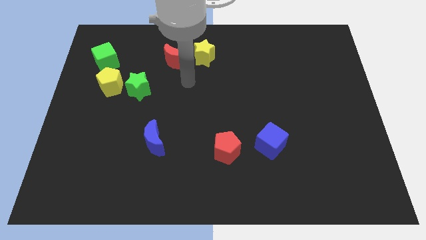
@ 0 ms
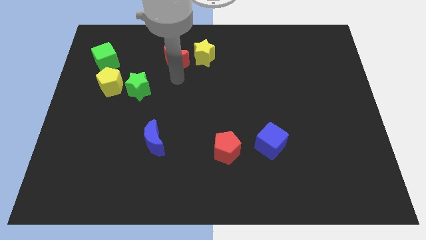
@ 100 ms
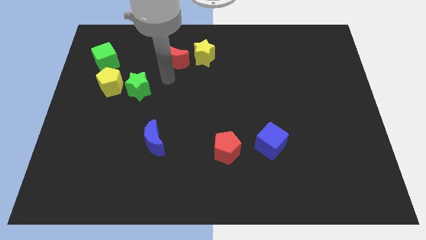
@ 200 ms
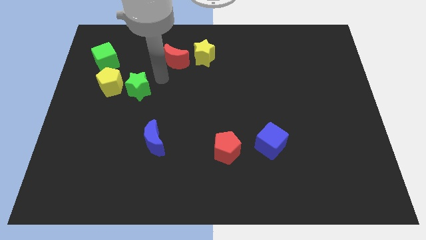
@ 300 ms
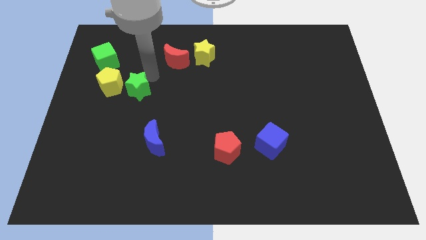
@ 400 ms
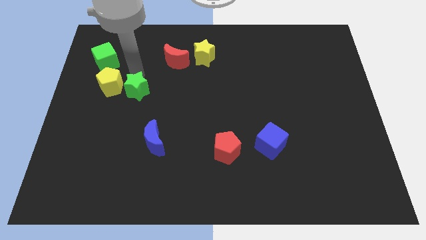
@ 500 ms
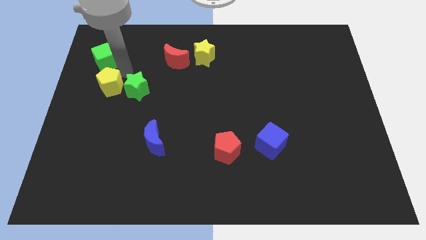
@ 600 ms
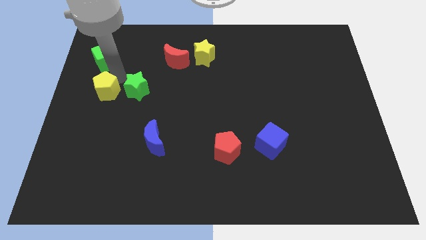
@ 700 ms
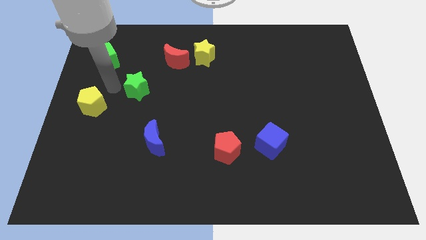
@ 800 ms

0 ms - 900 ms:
pull the green star apart from the yellow pentagon

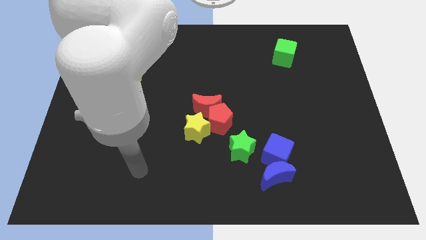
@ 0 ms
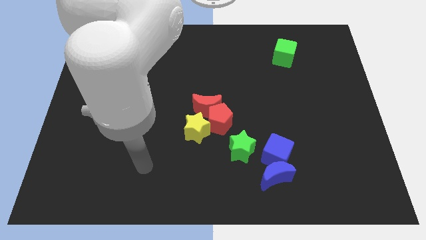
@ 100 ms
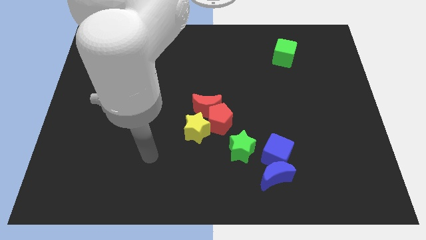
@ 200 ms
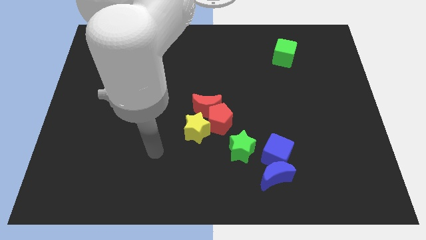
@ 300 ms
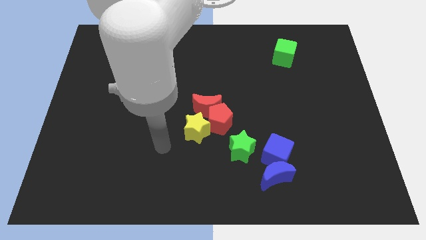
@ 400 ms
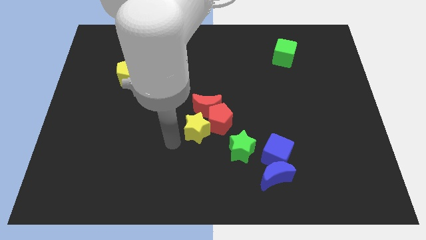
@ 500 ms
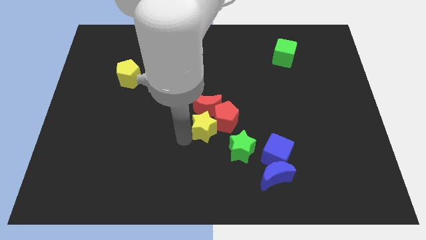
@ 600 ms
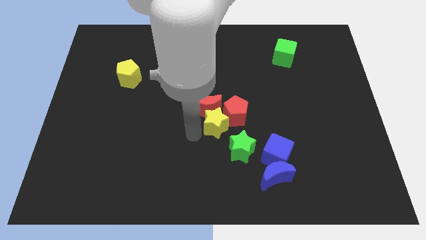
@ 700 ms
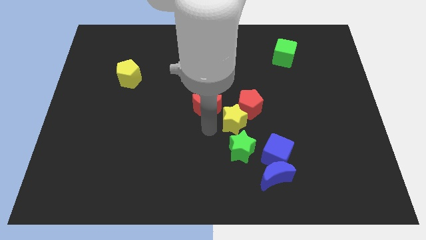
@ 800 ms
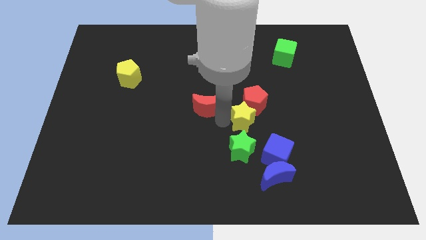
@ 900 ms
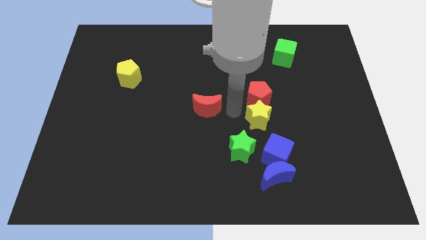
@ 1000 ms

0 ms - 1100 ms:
pull the red moon apart from the red pentagon and yellow star

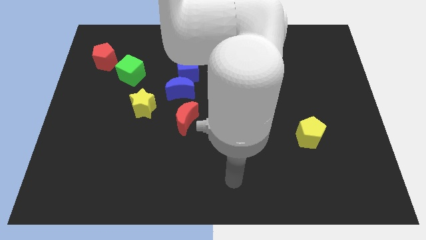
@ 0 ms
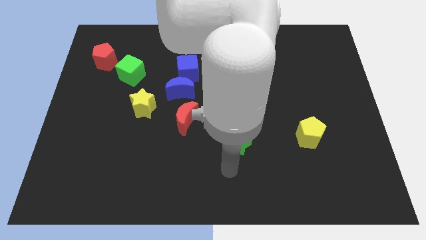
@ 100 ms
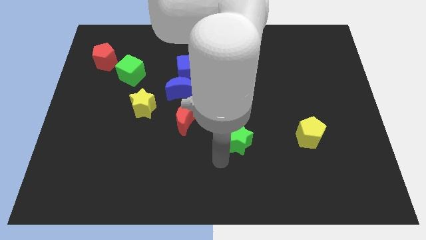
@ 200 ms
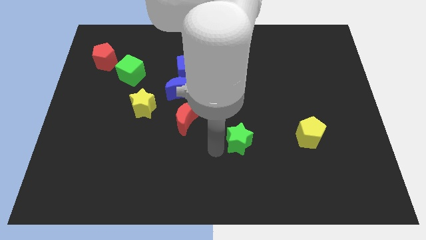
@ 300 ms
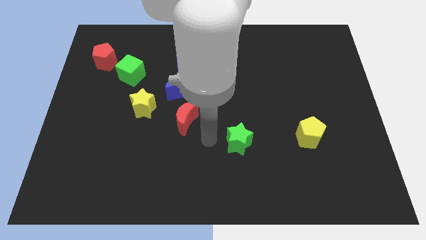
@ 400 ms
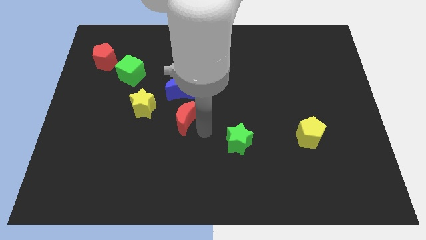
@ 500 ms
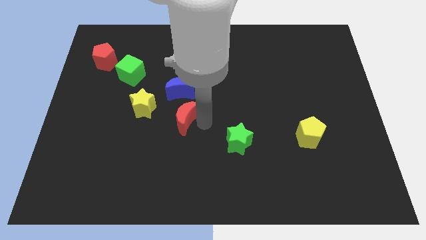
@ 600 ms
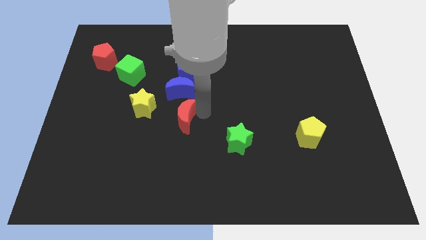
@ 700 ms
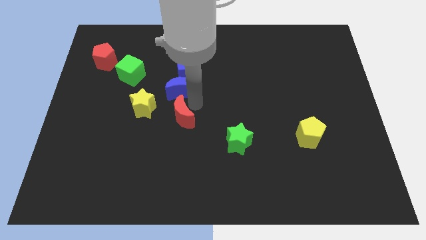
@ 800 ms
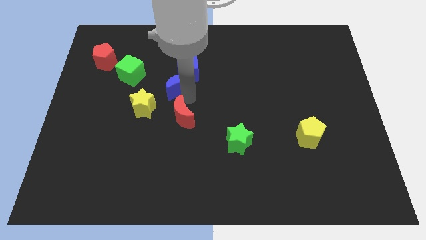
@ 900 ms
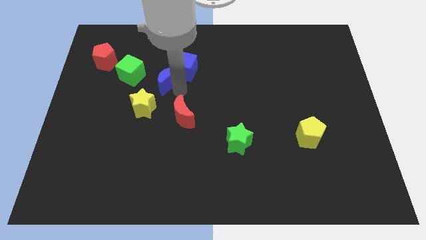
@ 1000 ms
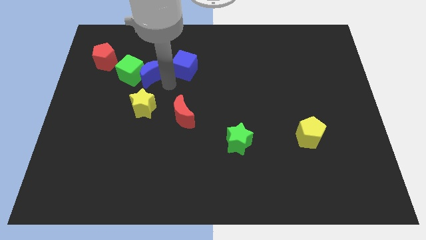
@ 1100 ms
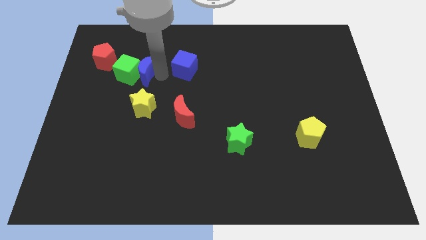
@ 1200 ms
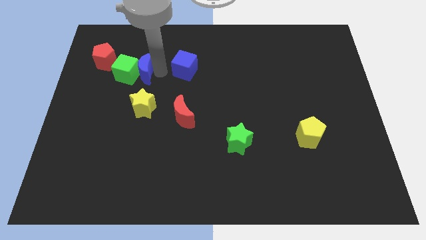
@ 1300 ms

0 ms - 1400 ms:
pull the blue cube apart from the blue moon

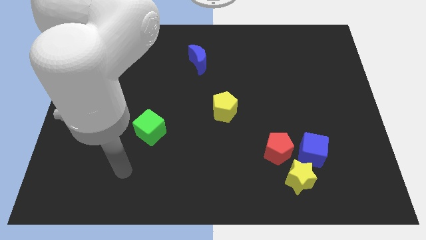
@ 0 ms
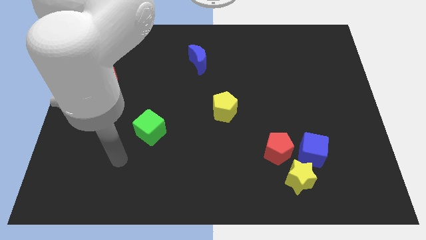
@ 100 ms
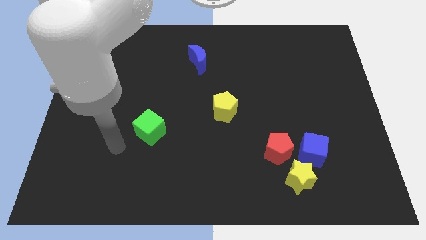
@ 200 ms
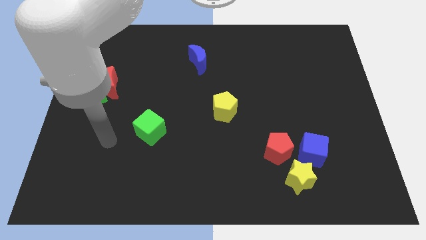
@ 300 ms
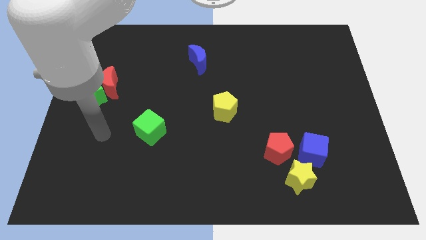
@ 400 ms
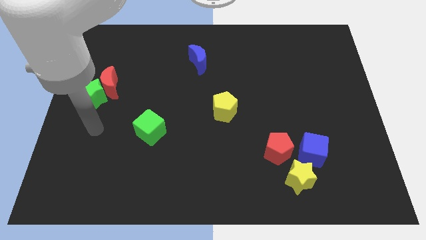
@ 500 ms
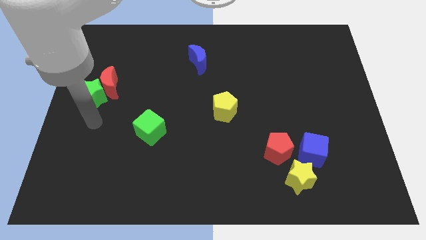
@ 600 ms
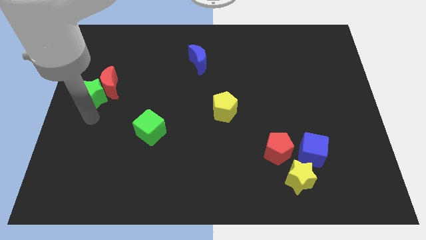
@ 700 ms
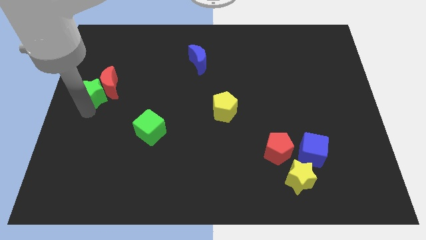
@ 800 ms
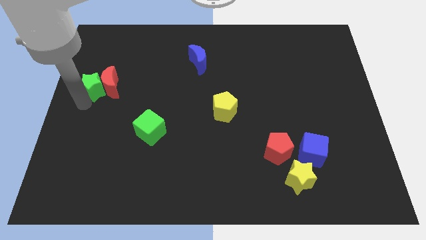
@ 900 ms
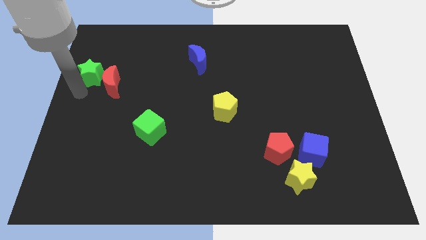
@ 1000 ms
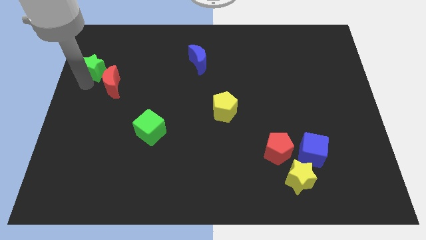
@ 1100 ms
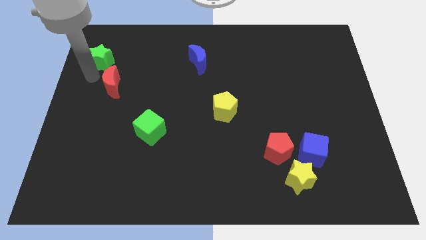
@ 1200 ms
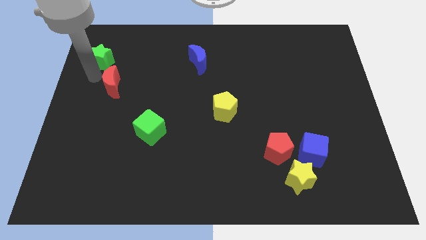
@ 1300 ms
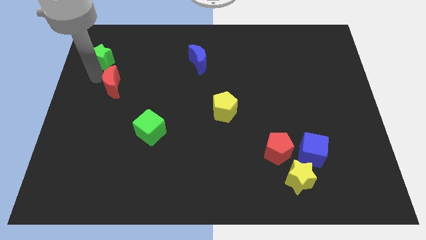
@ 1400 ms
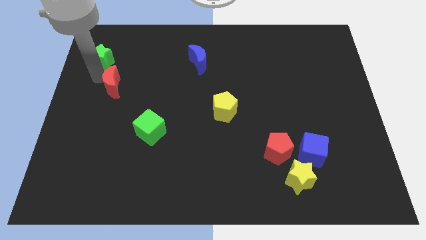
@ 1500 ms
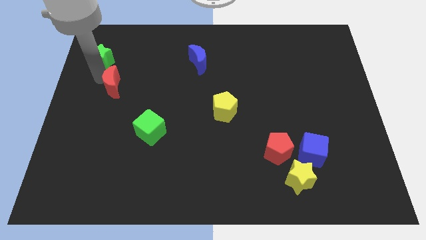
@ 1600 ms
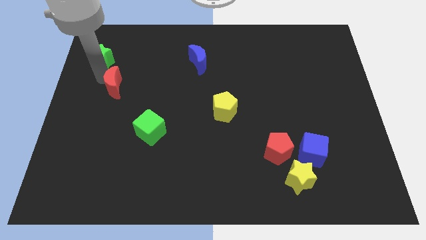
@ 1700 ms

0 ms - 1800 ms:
pull the red moon apart from the green star

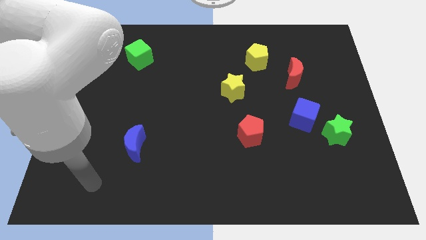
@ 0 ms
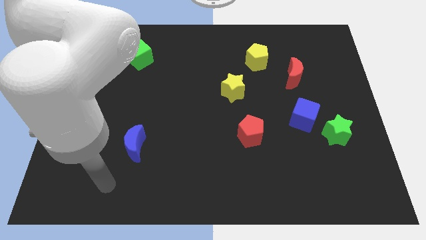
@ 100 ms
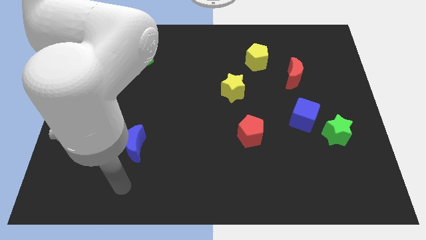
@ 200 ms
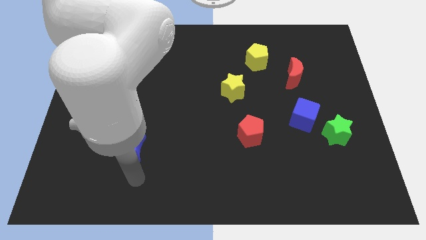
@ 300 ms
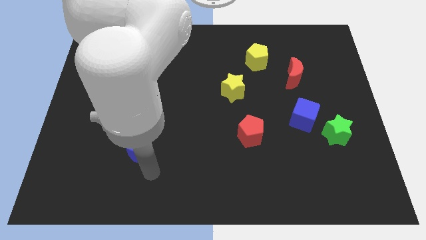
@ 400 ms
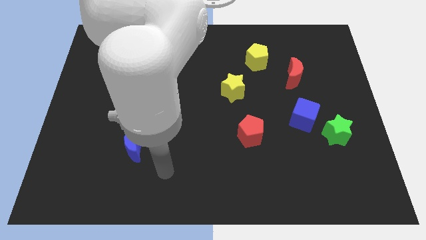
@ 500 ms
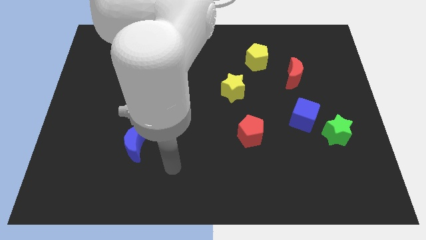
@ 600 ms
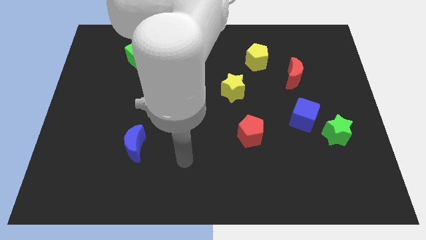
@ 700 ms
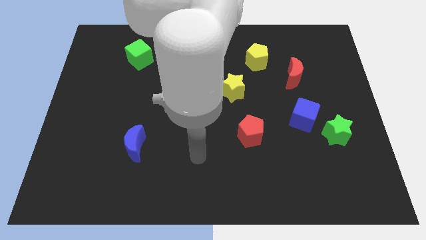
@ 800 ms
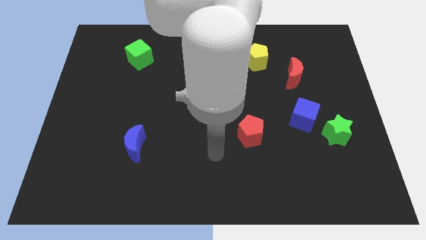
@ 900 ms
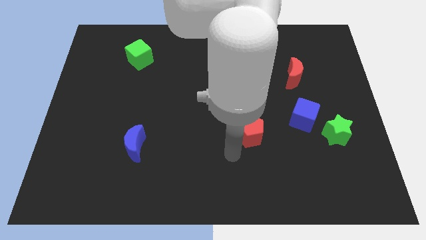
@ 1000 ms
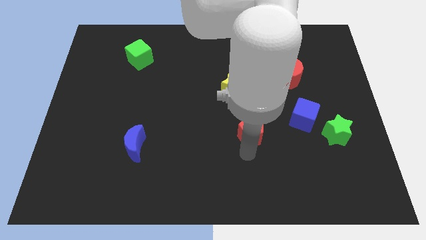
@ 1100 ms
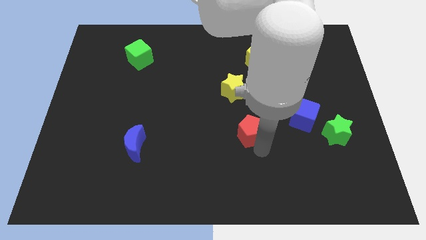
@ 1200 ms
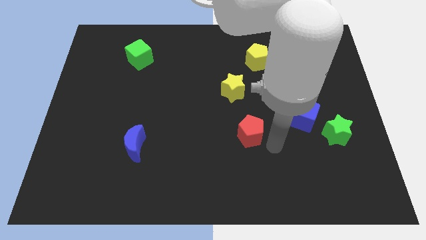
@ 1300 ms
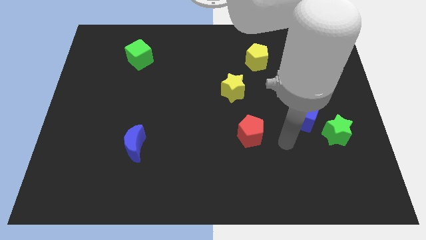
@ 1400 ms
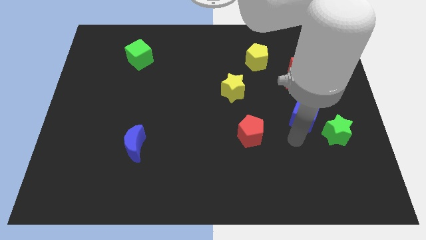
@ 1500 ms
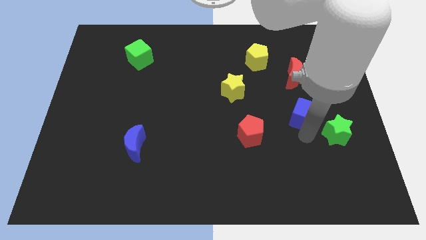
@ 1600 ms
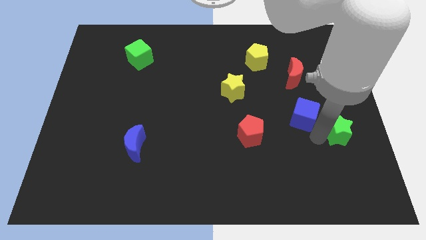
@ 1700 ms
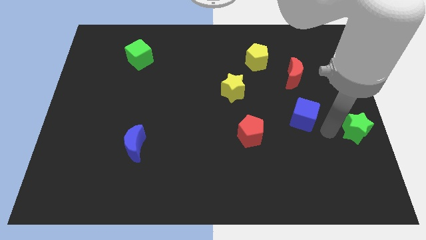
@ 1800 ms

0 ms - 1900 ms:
separate the blue cube from the green star

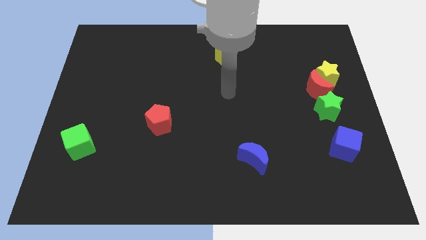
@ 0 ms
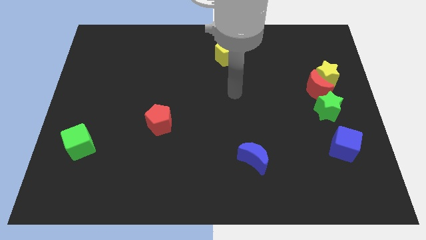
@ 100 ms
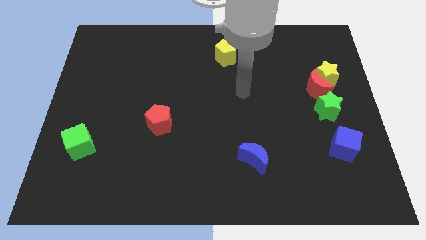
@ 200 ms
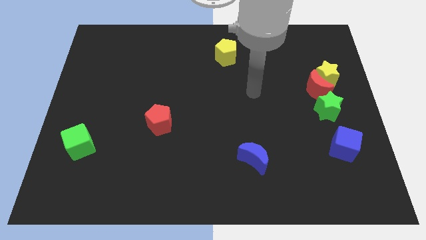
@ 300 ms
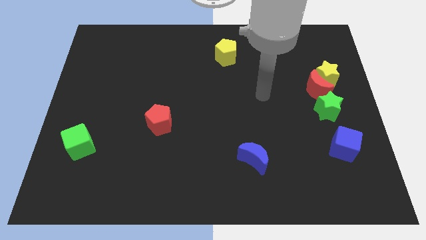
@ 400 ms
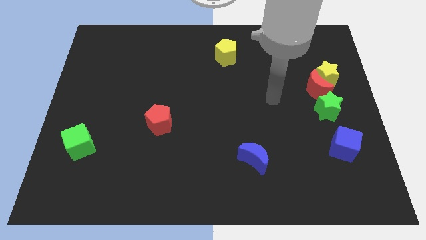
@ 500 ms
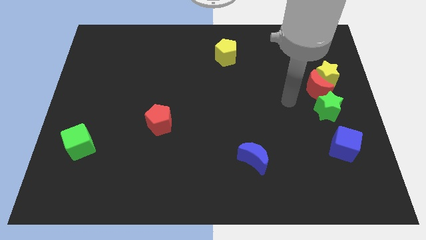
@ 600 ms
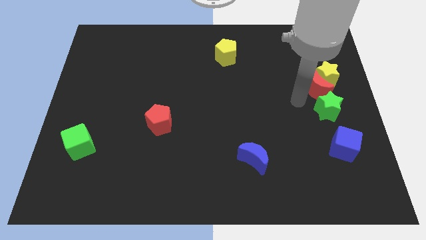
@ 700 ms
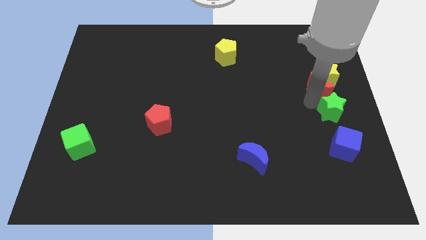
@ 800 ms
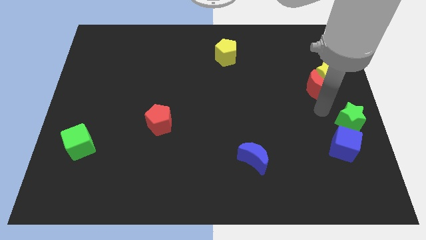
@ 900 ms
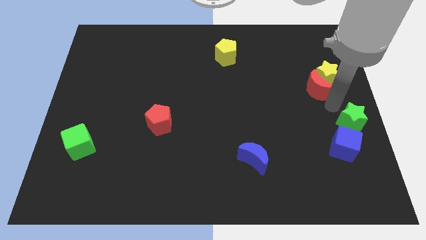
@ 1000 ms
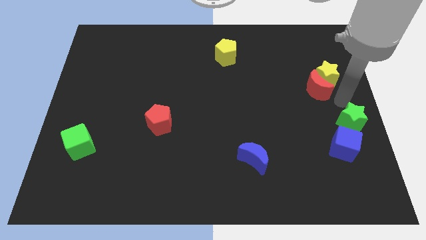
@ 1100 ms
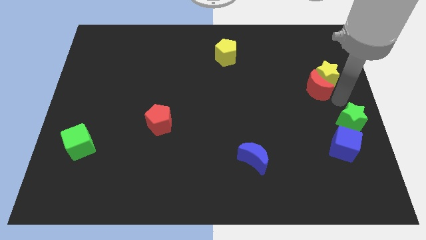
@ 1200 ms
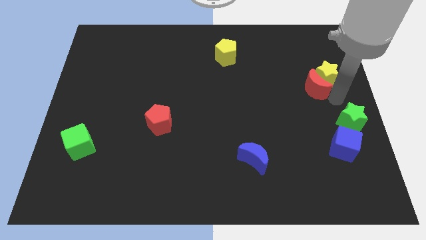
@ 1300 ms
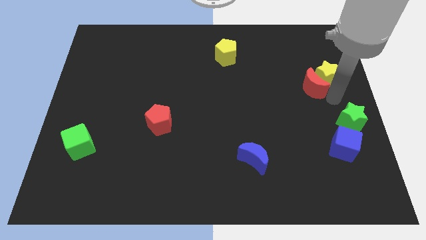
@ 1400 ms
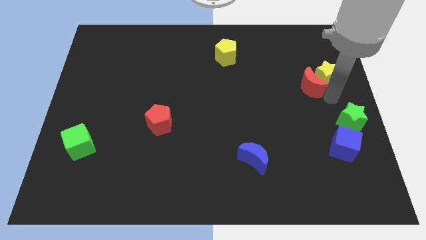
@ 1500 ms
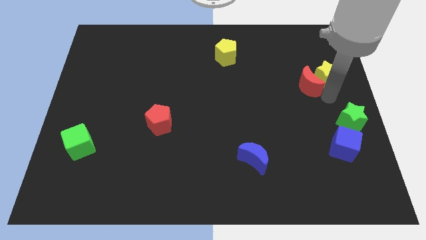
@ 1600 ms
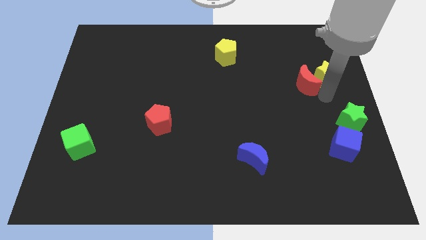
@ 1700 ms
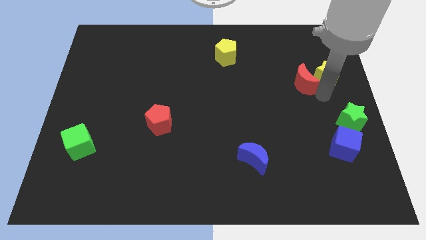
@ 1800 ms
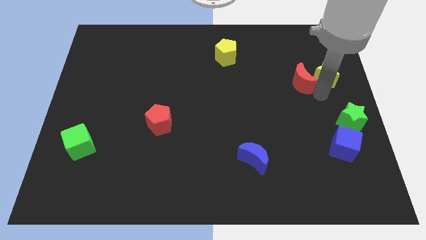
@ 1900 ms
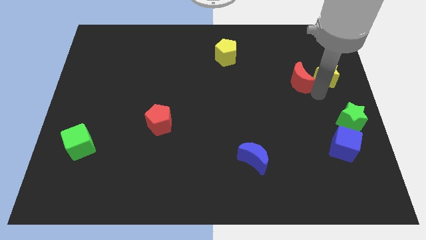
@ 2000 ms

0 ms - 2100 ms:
move the red moon away from the yellow star and green star

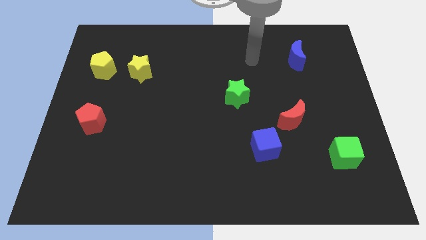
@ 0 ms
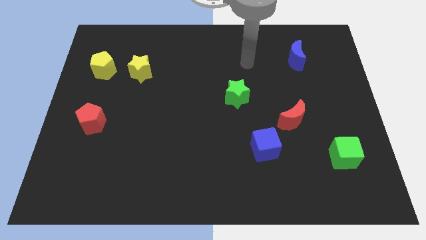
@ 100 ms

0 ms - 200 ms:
pull the yellow star apart from the yellow pentagon
